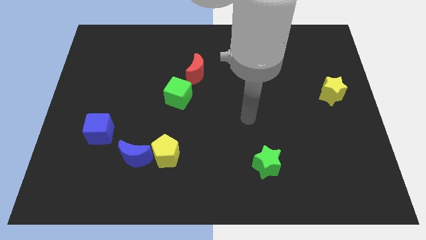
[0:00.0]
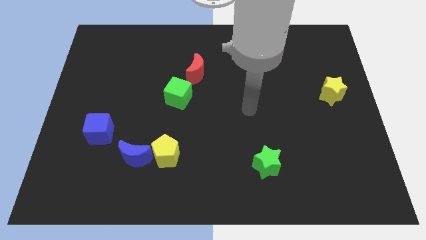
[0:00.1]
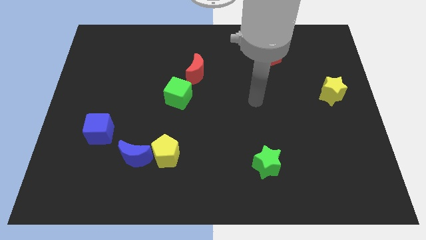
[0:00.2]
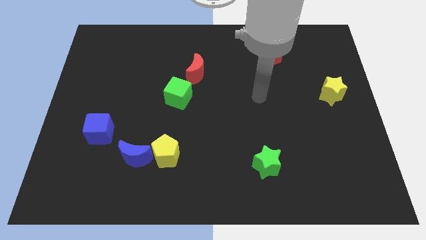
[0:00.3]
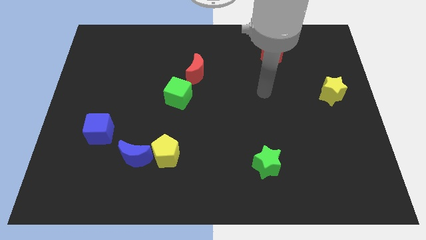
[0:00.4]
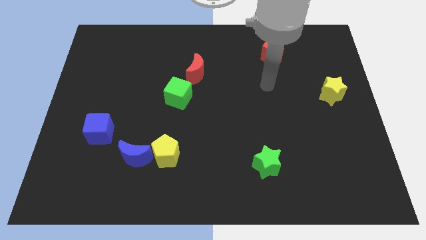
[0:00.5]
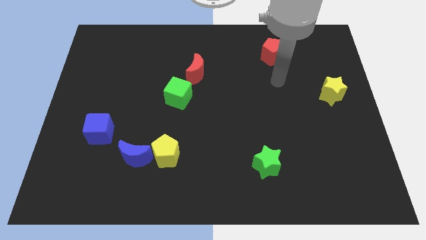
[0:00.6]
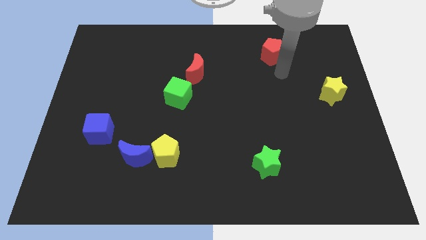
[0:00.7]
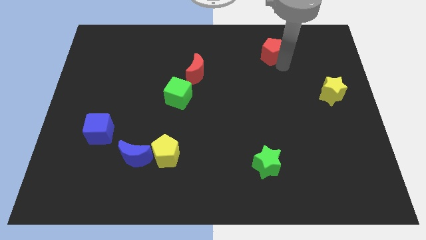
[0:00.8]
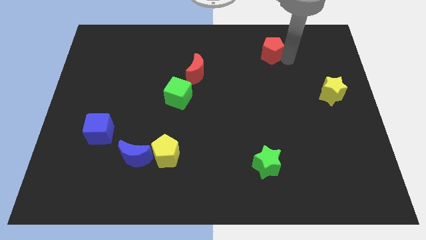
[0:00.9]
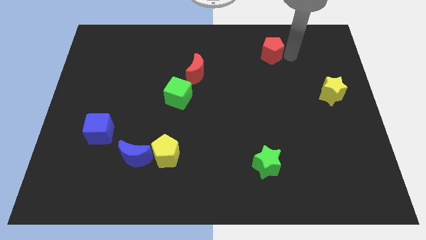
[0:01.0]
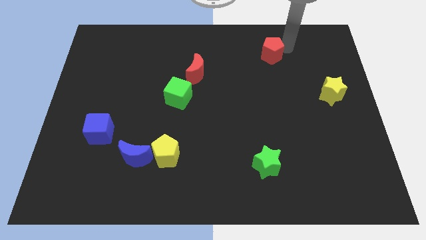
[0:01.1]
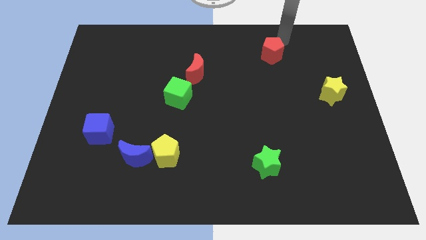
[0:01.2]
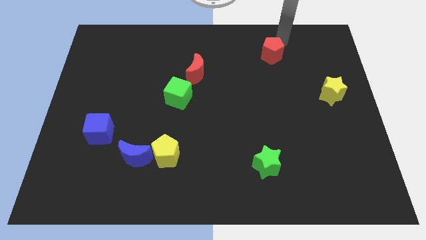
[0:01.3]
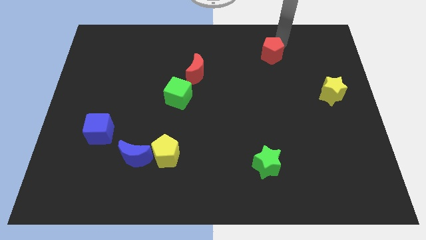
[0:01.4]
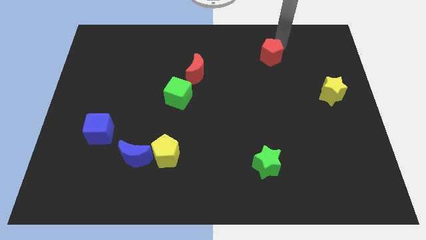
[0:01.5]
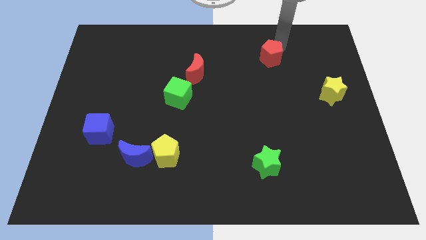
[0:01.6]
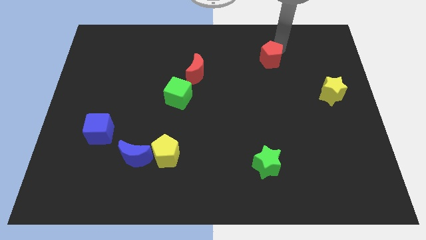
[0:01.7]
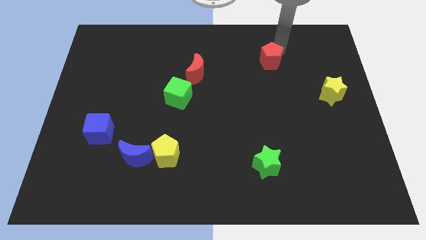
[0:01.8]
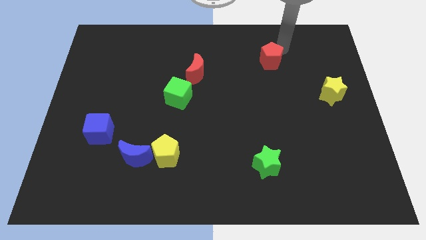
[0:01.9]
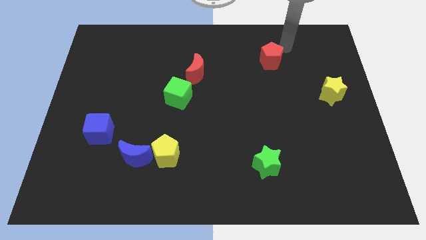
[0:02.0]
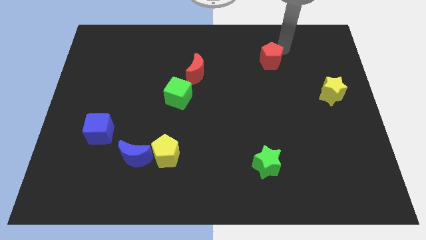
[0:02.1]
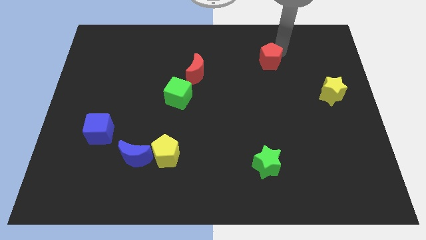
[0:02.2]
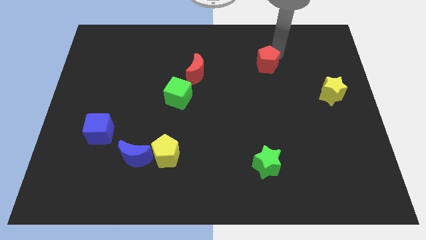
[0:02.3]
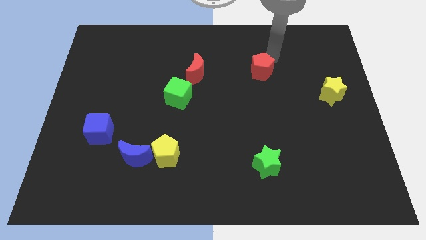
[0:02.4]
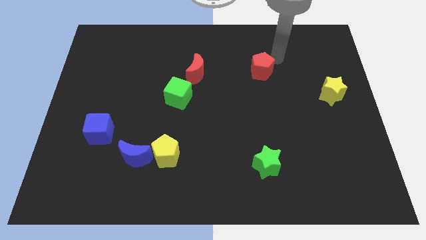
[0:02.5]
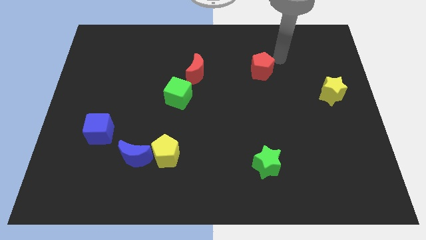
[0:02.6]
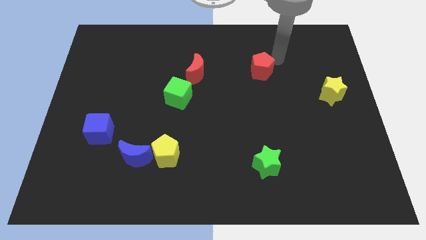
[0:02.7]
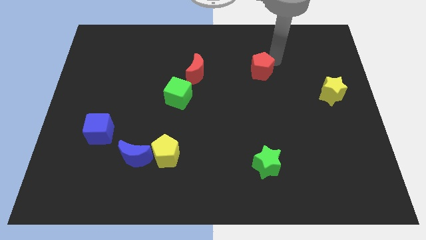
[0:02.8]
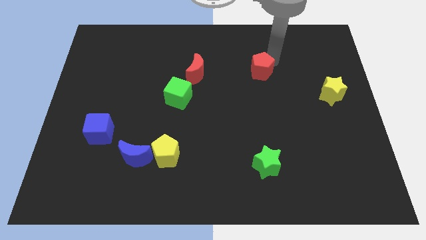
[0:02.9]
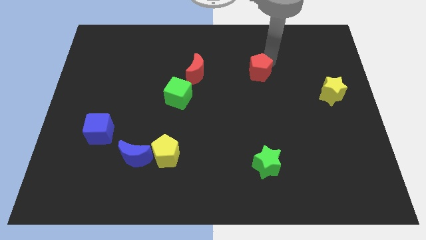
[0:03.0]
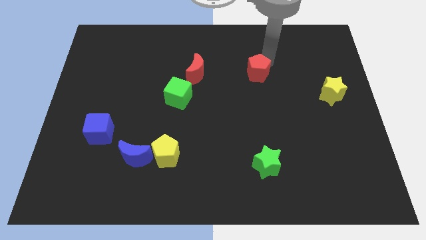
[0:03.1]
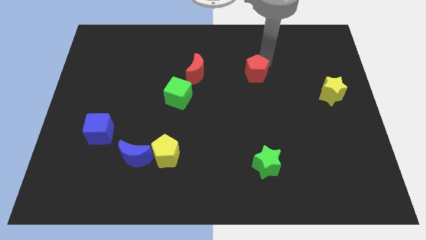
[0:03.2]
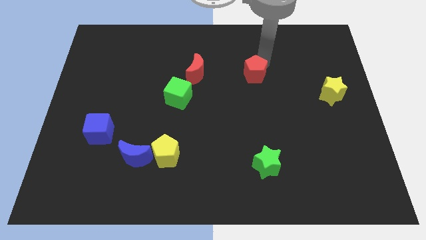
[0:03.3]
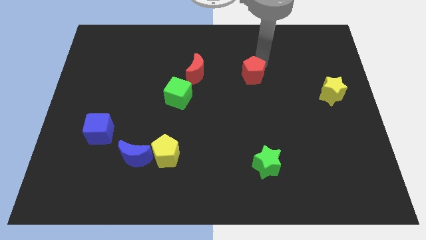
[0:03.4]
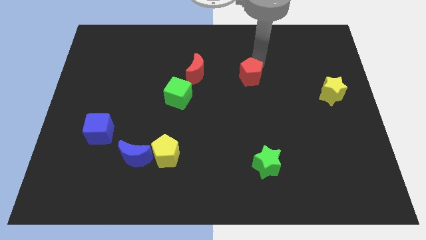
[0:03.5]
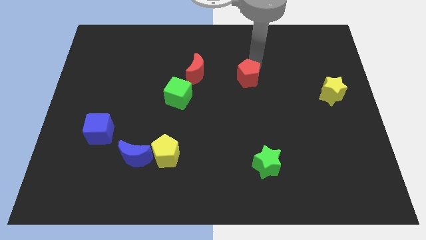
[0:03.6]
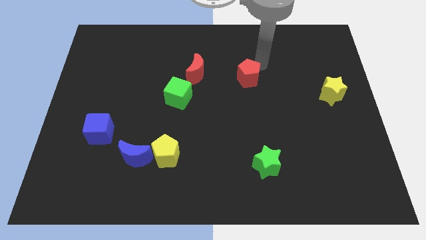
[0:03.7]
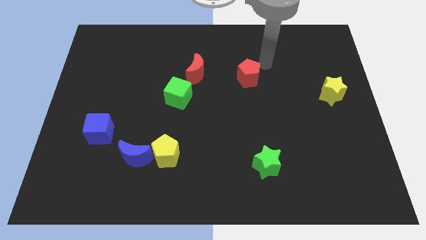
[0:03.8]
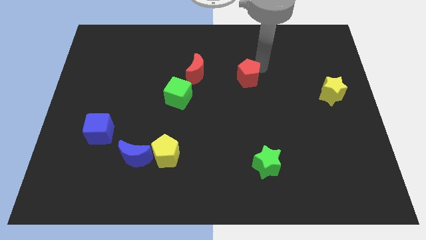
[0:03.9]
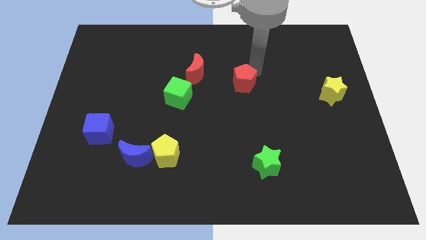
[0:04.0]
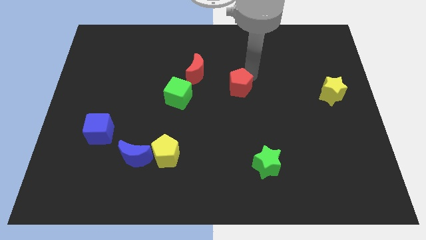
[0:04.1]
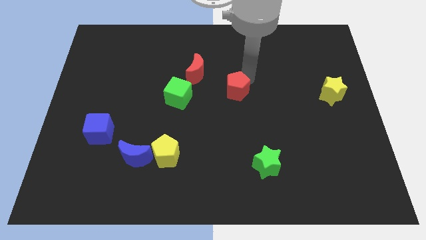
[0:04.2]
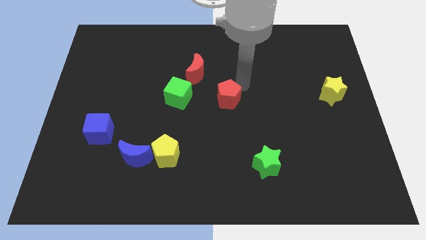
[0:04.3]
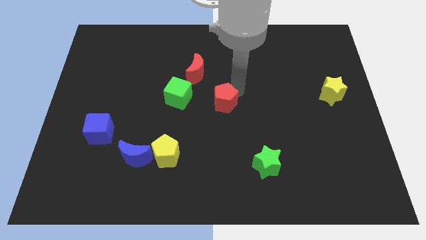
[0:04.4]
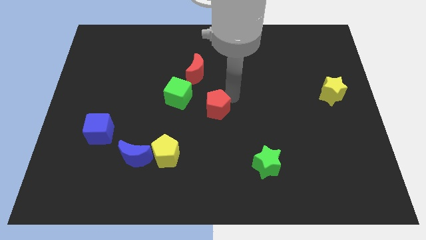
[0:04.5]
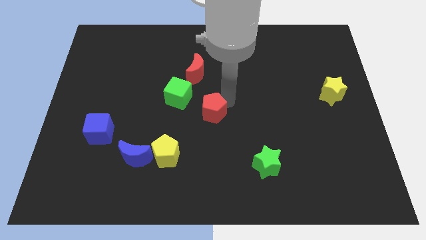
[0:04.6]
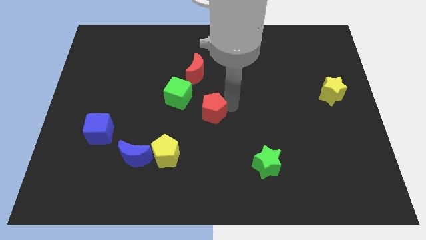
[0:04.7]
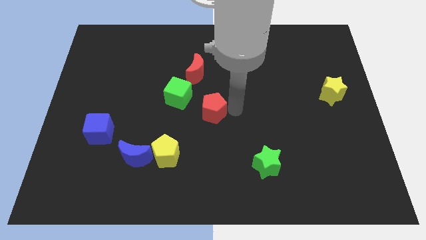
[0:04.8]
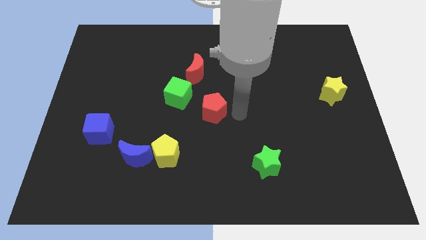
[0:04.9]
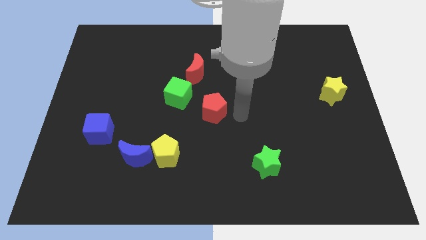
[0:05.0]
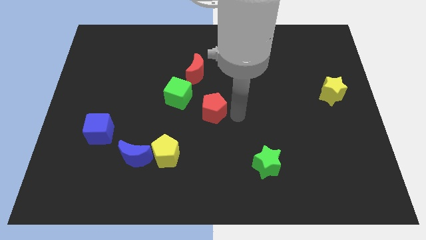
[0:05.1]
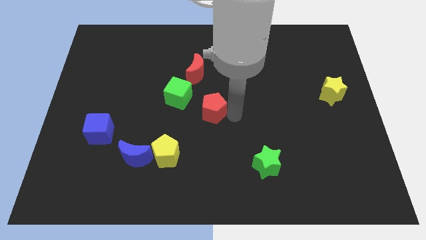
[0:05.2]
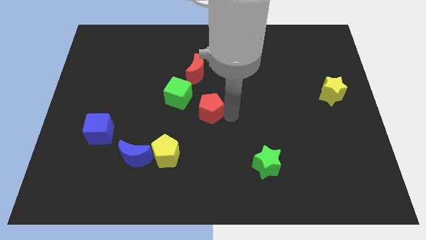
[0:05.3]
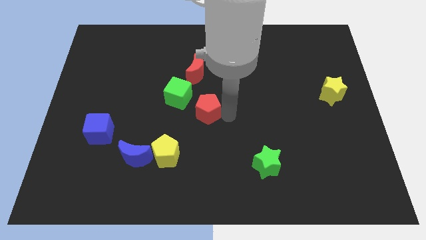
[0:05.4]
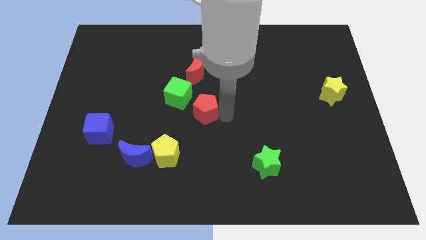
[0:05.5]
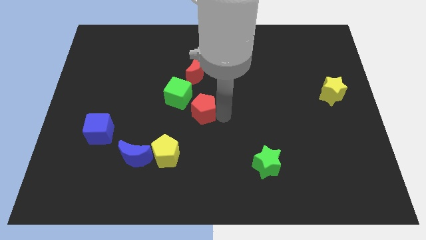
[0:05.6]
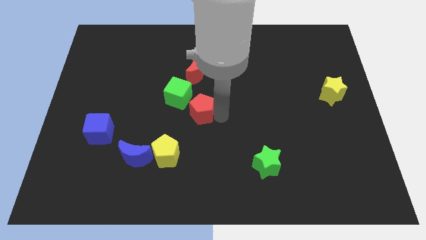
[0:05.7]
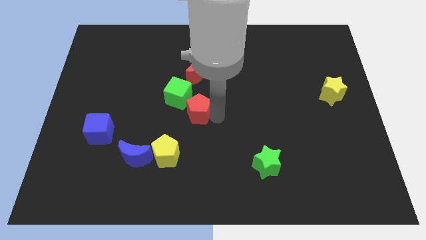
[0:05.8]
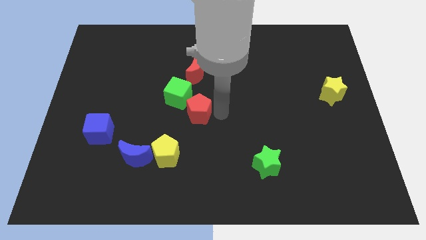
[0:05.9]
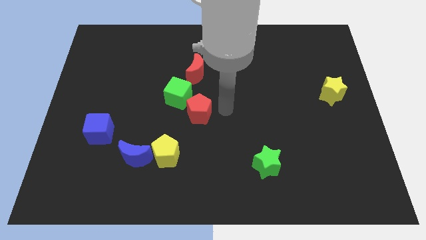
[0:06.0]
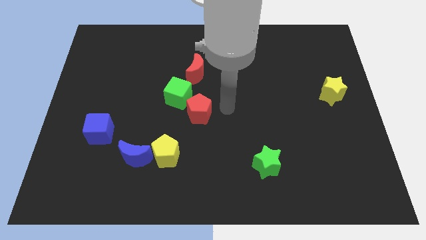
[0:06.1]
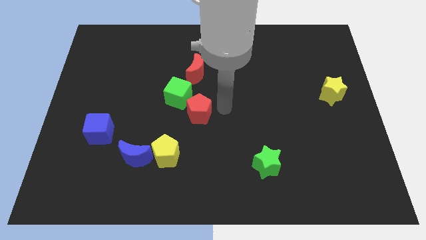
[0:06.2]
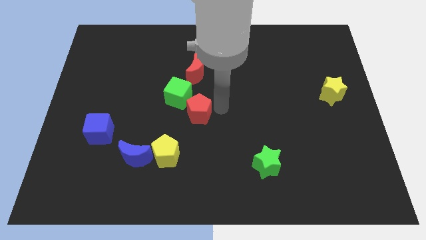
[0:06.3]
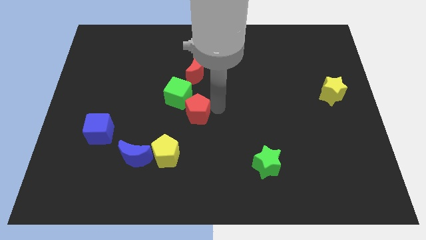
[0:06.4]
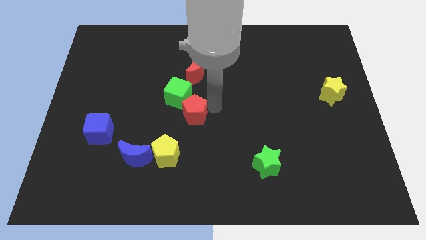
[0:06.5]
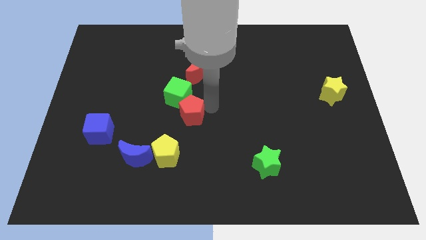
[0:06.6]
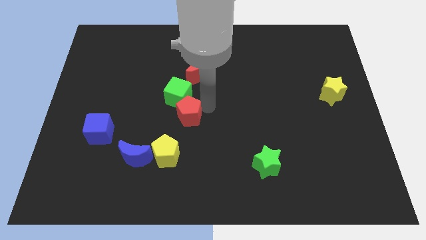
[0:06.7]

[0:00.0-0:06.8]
slide the red pentagon to the top of the yellow pentagon
